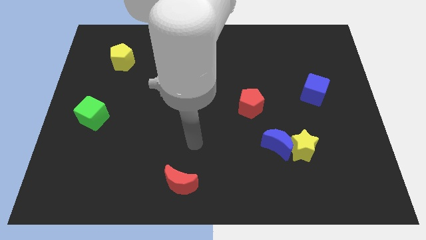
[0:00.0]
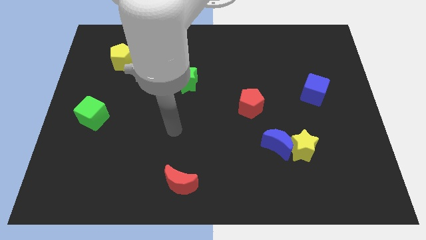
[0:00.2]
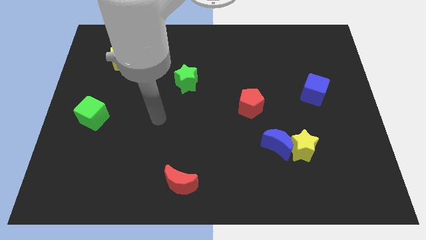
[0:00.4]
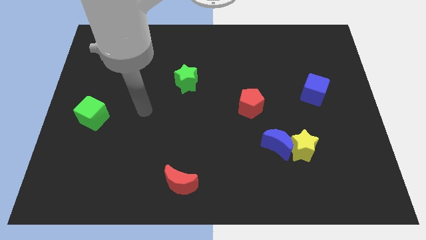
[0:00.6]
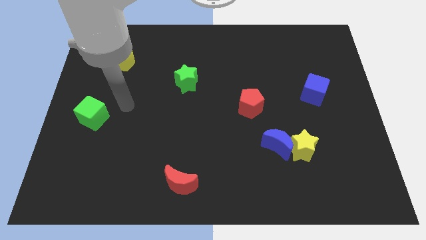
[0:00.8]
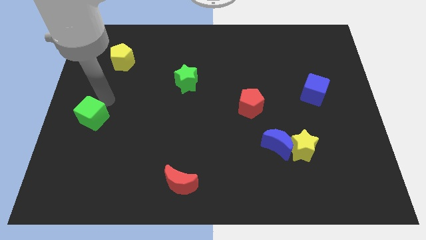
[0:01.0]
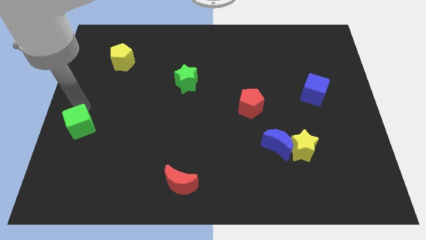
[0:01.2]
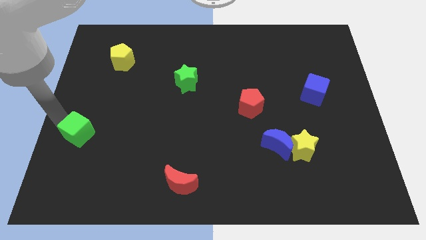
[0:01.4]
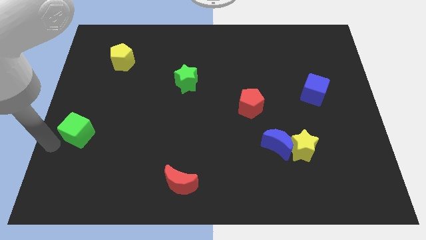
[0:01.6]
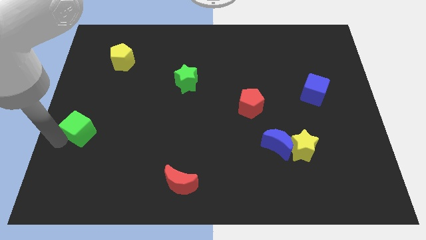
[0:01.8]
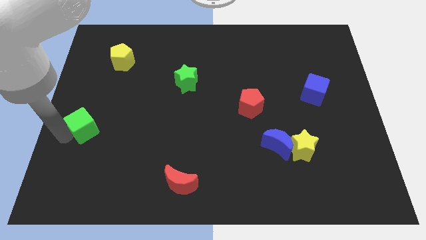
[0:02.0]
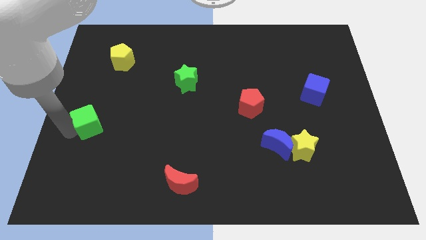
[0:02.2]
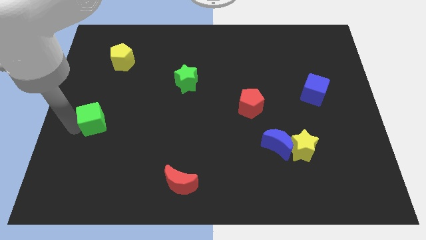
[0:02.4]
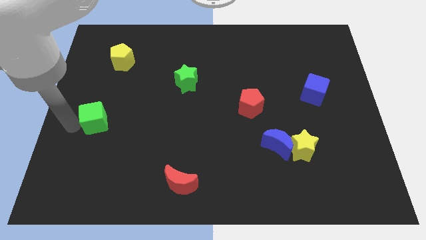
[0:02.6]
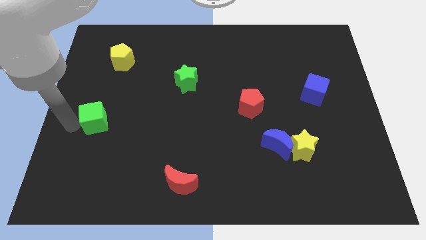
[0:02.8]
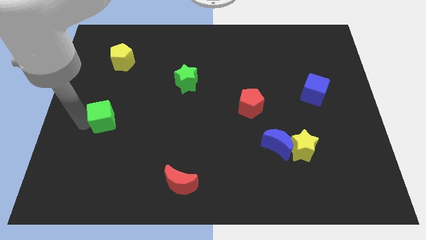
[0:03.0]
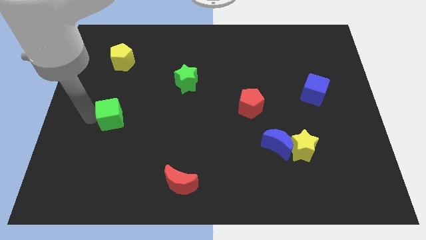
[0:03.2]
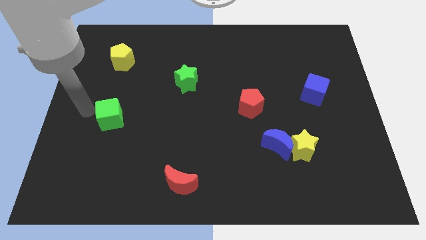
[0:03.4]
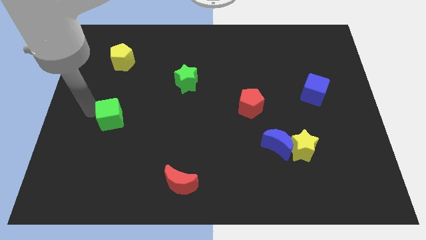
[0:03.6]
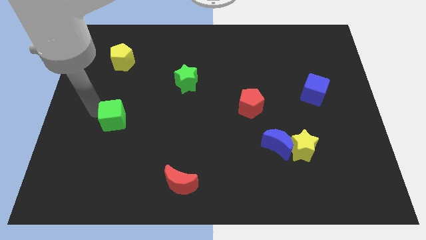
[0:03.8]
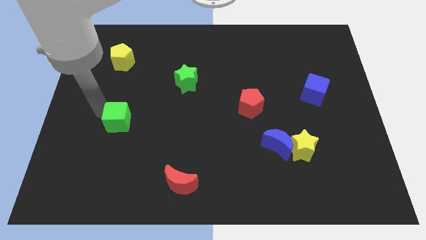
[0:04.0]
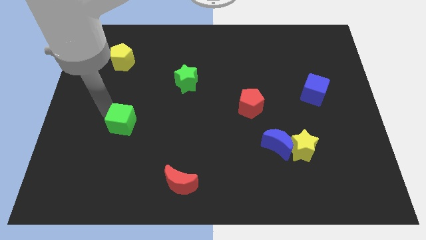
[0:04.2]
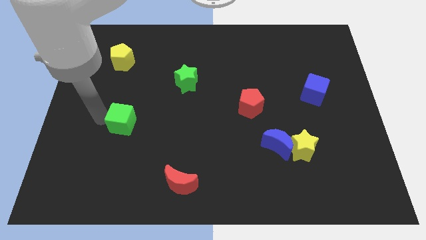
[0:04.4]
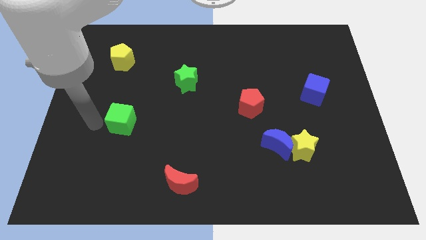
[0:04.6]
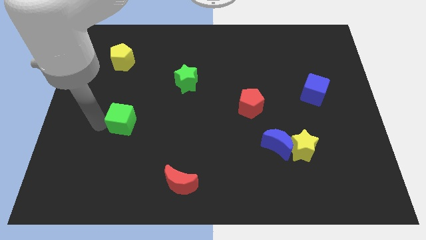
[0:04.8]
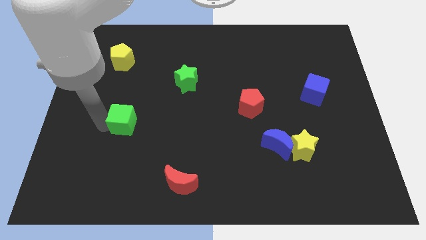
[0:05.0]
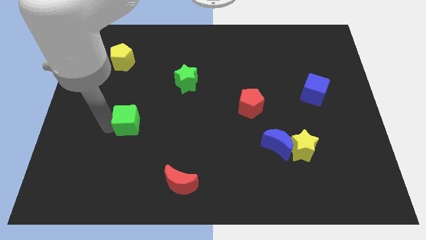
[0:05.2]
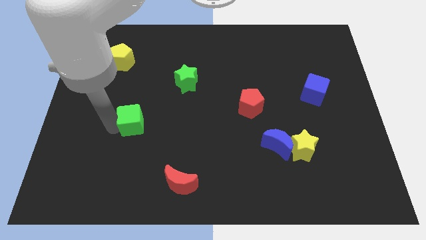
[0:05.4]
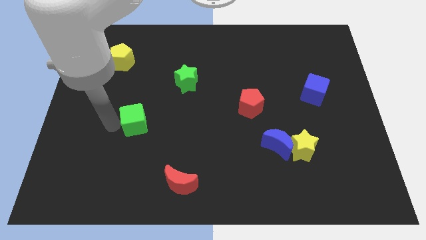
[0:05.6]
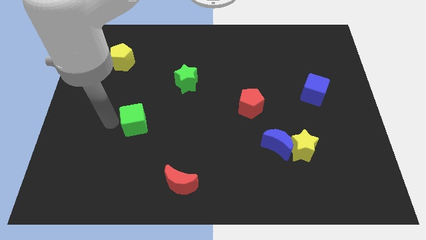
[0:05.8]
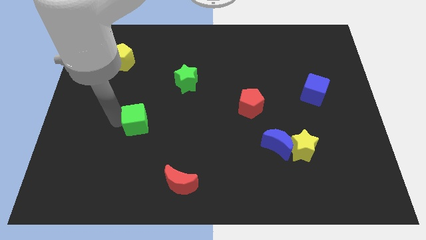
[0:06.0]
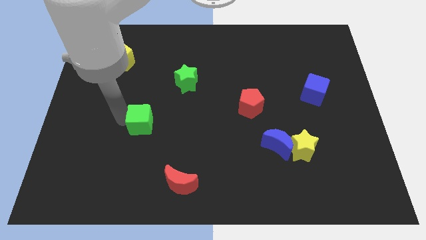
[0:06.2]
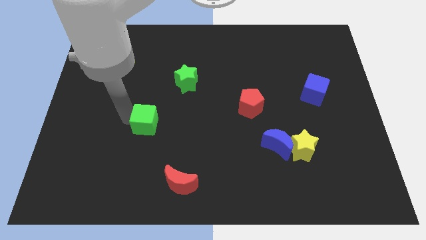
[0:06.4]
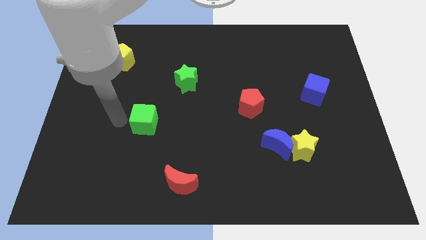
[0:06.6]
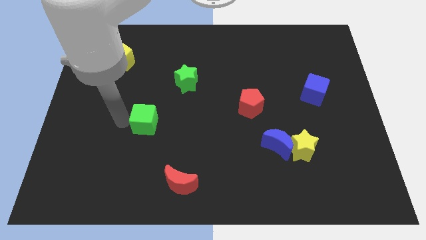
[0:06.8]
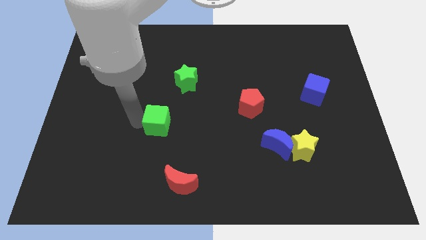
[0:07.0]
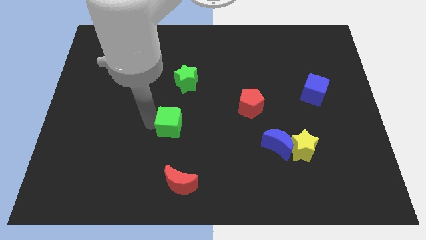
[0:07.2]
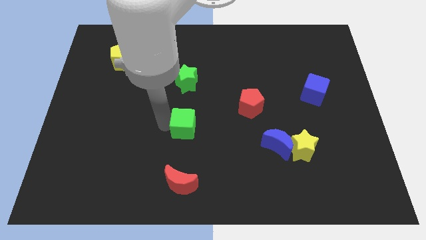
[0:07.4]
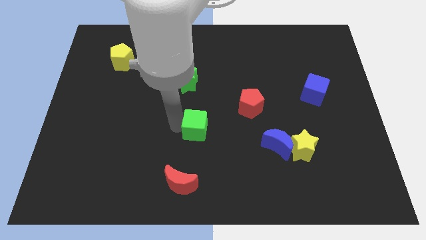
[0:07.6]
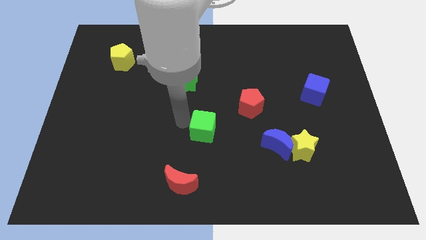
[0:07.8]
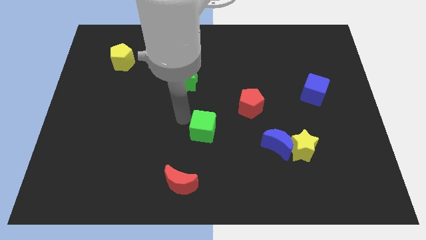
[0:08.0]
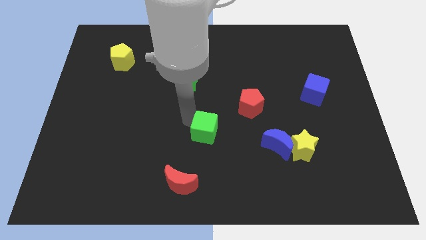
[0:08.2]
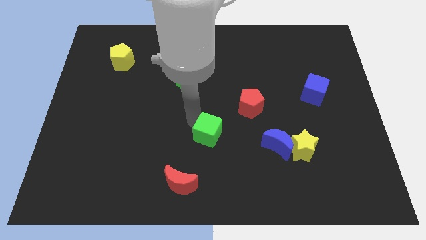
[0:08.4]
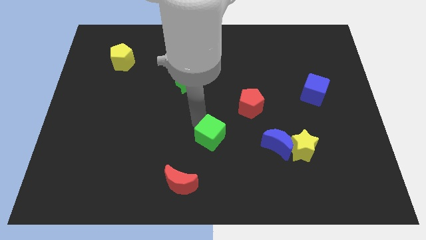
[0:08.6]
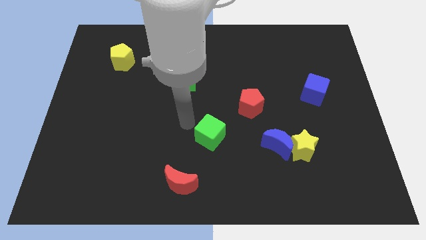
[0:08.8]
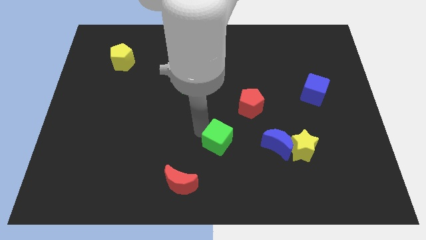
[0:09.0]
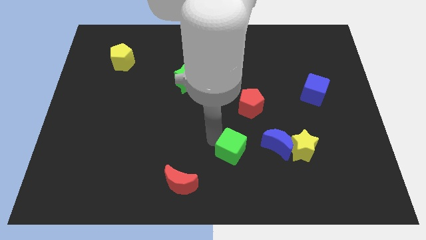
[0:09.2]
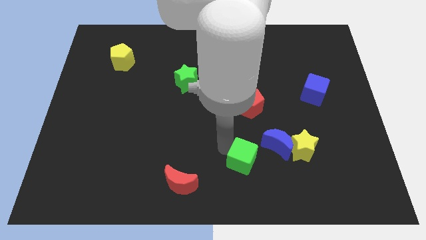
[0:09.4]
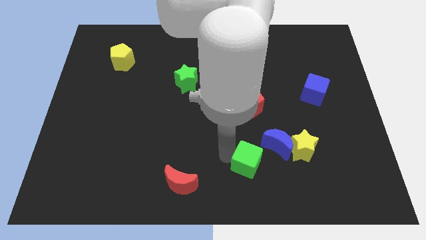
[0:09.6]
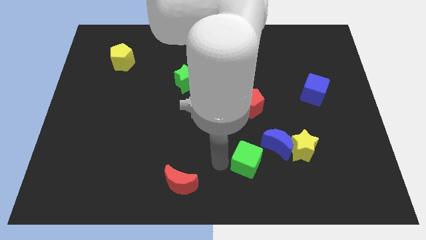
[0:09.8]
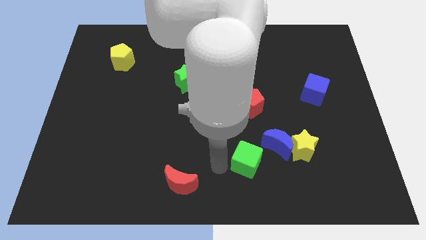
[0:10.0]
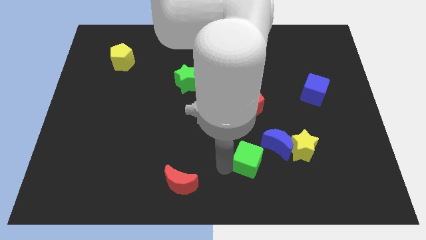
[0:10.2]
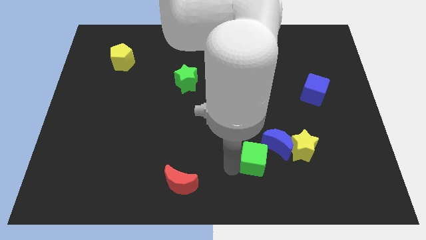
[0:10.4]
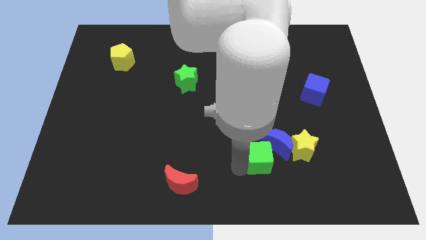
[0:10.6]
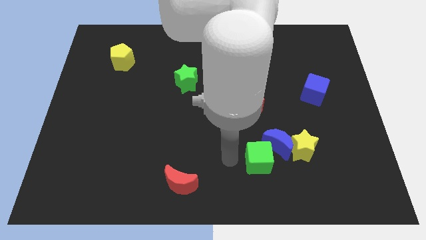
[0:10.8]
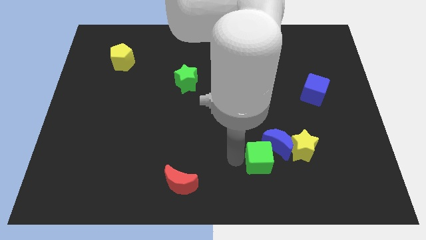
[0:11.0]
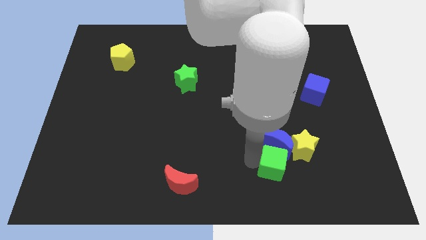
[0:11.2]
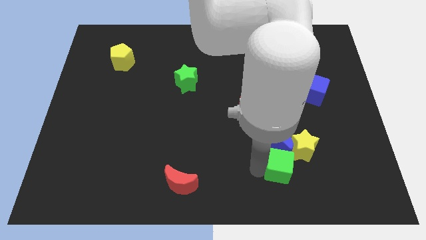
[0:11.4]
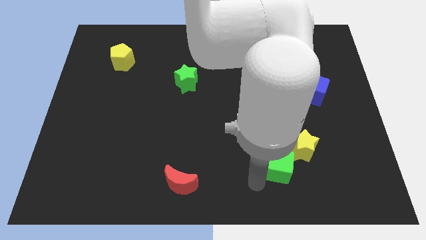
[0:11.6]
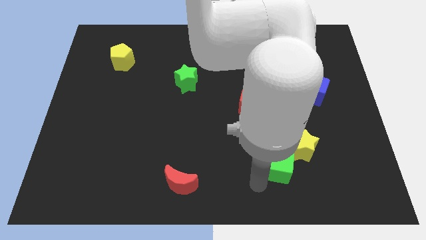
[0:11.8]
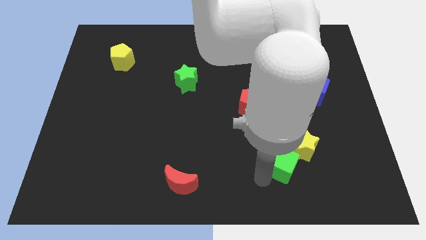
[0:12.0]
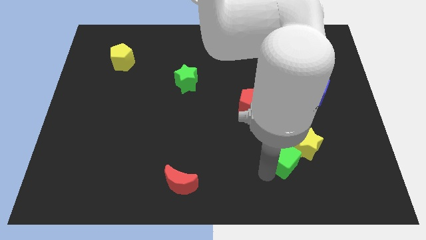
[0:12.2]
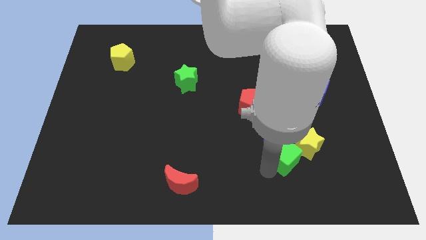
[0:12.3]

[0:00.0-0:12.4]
push the green cube next to the yellow star

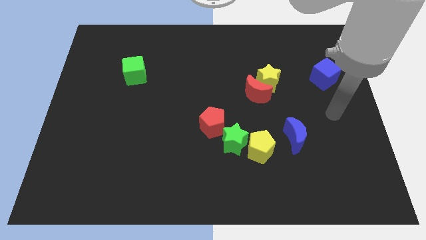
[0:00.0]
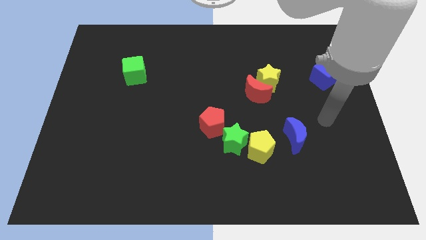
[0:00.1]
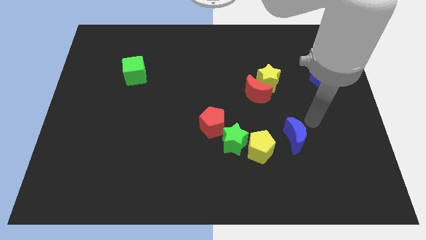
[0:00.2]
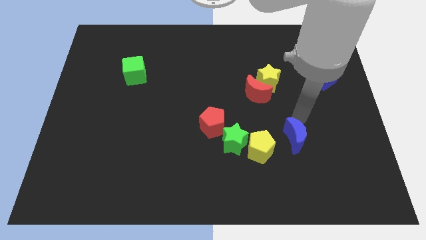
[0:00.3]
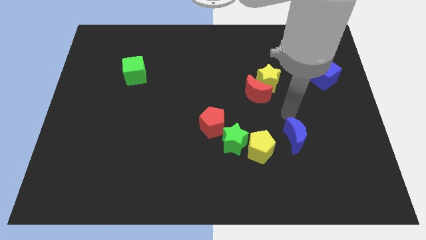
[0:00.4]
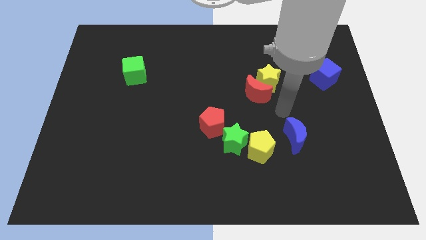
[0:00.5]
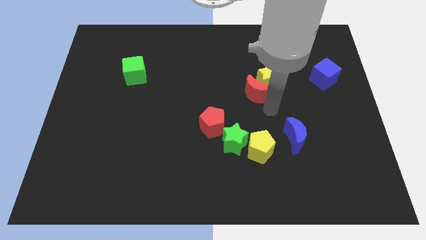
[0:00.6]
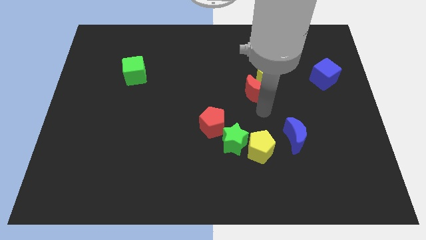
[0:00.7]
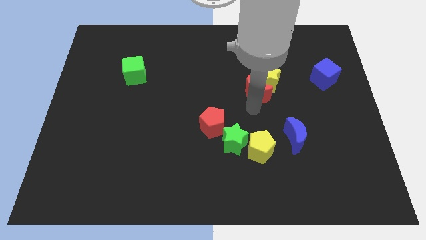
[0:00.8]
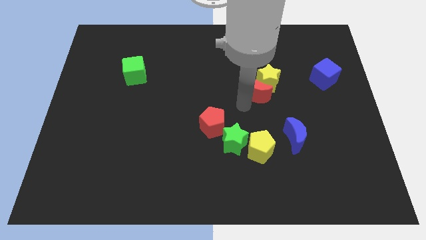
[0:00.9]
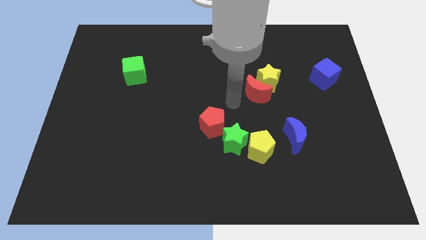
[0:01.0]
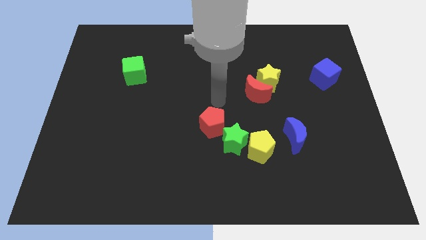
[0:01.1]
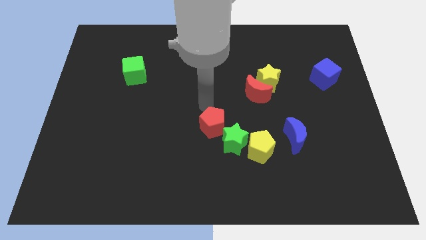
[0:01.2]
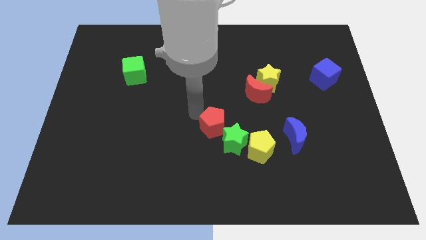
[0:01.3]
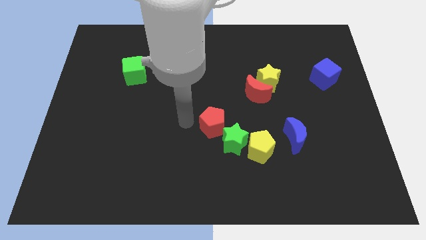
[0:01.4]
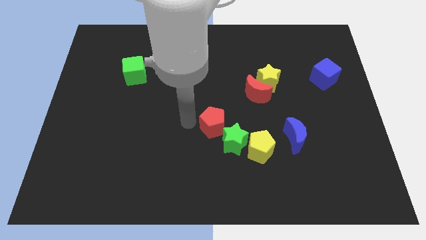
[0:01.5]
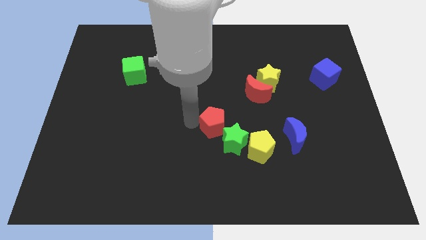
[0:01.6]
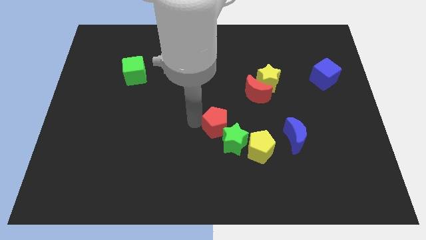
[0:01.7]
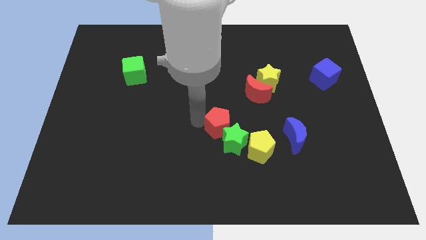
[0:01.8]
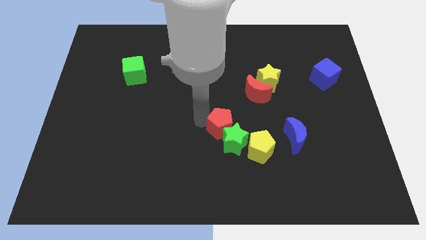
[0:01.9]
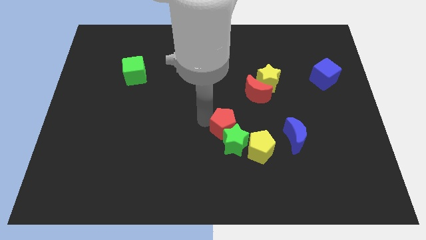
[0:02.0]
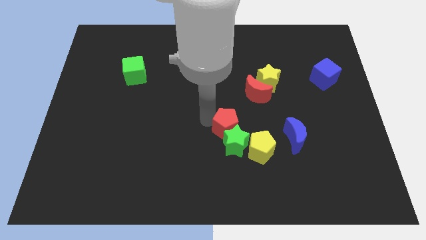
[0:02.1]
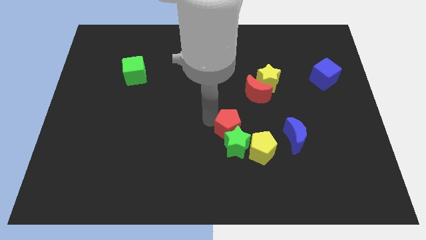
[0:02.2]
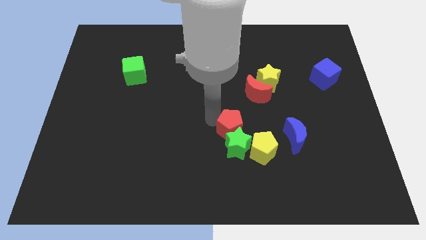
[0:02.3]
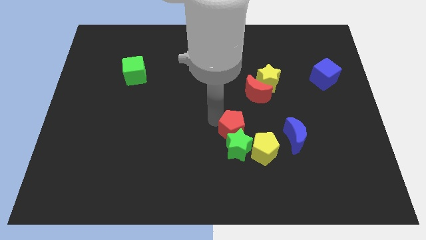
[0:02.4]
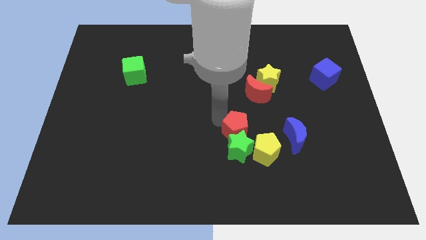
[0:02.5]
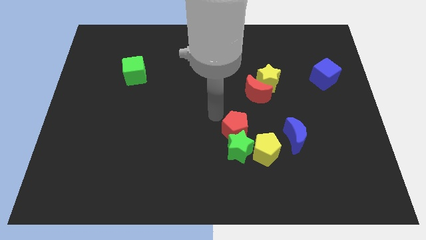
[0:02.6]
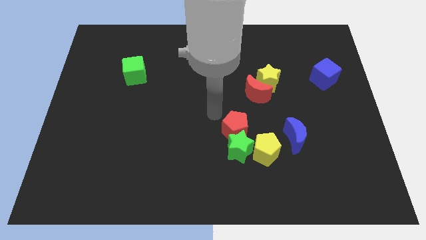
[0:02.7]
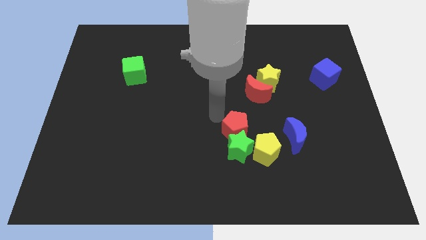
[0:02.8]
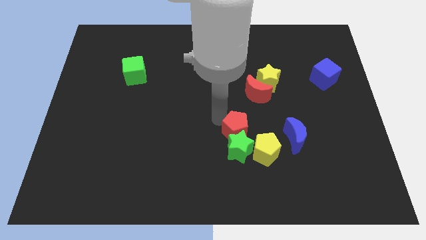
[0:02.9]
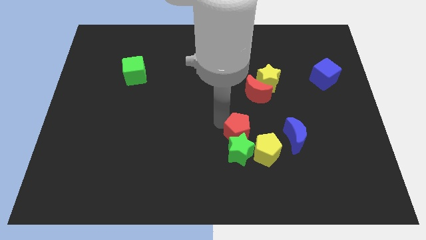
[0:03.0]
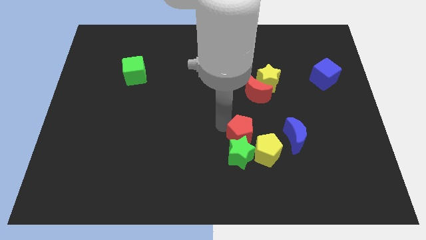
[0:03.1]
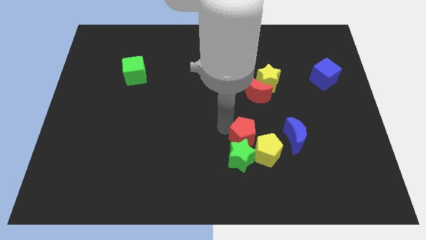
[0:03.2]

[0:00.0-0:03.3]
move the red pentagon close to the yellow pentagon
